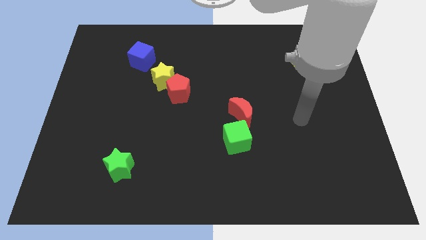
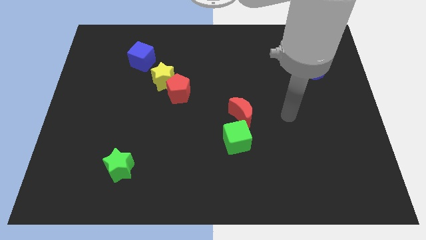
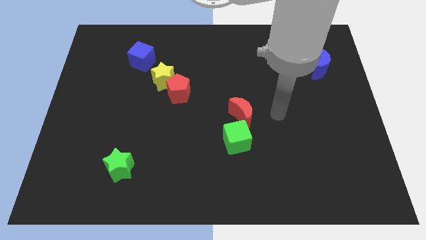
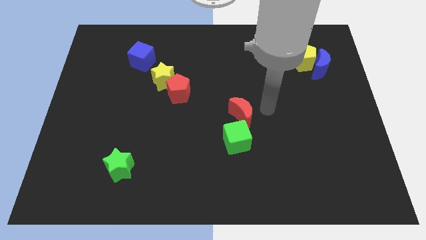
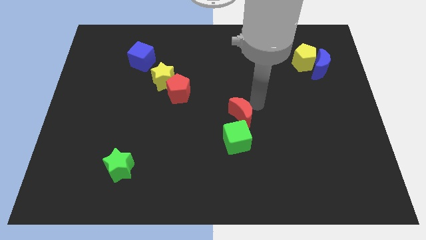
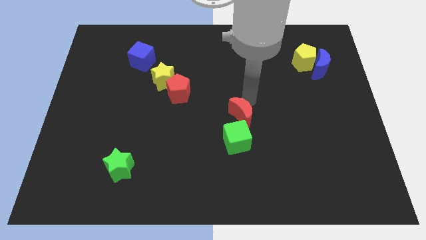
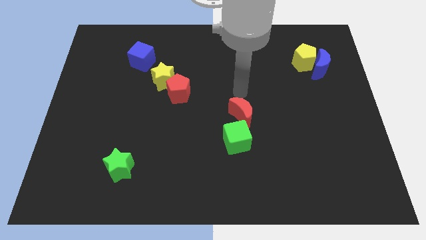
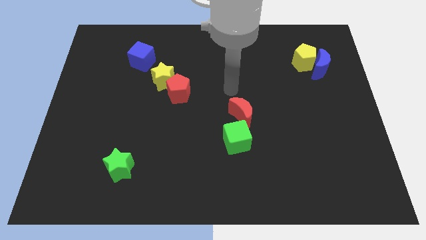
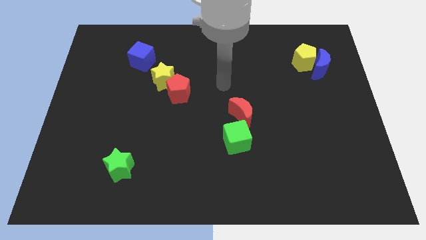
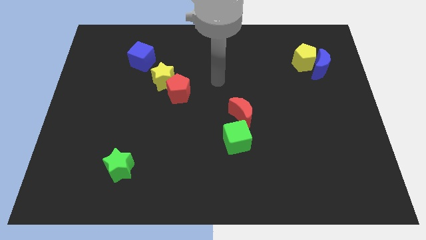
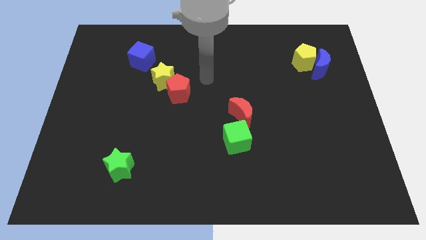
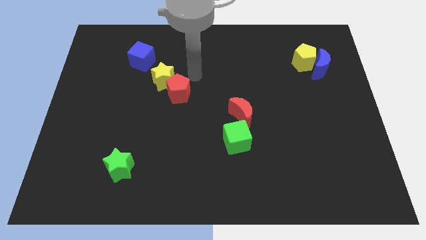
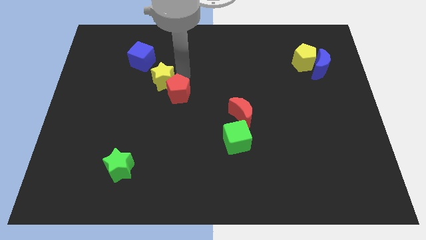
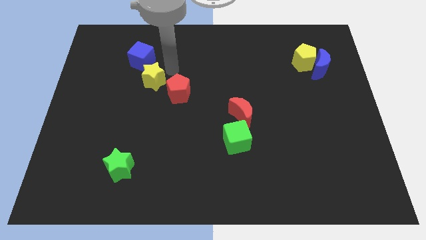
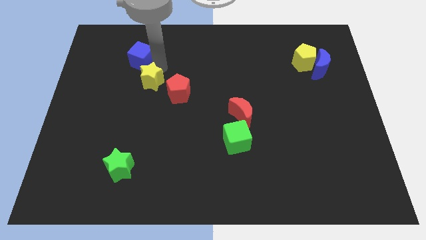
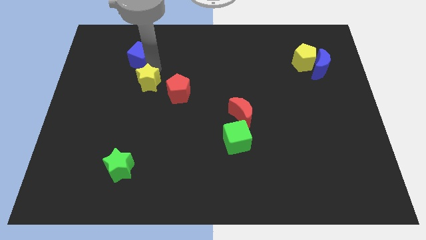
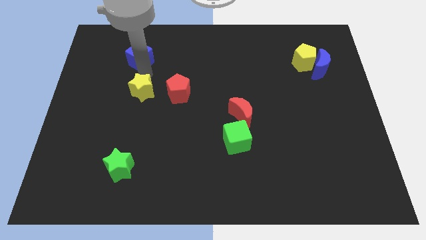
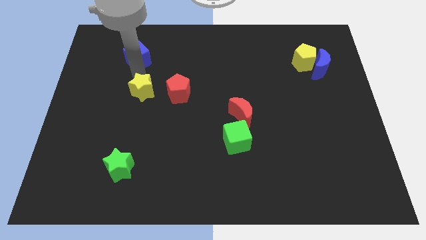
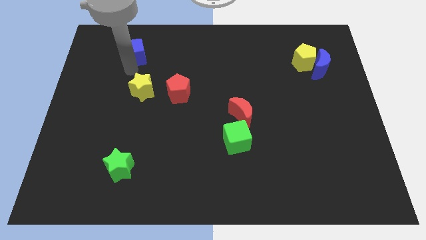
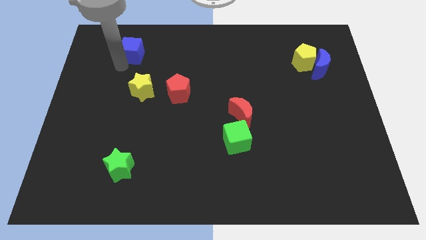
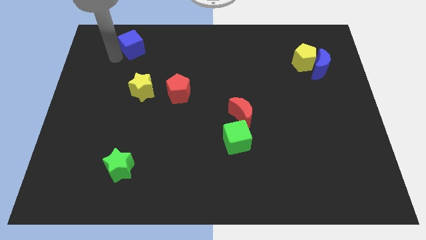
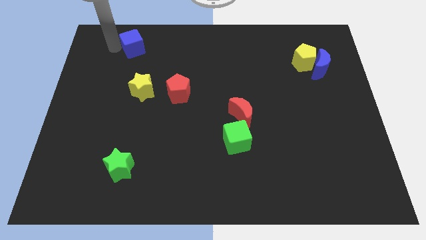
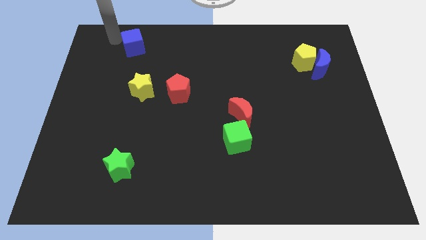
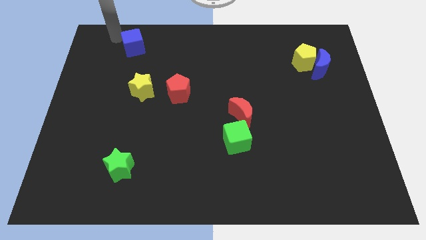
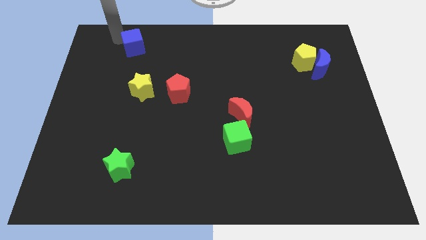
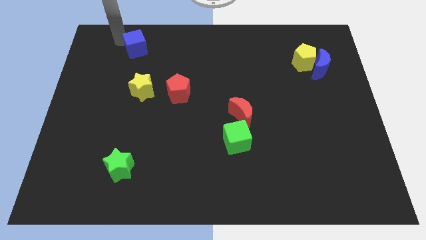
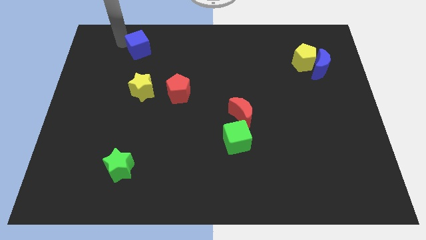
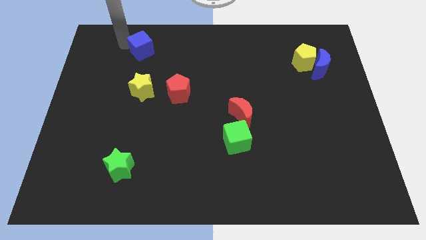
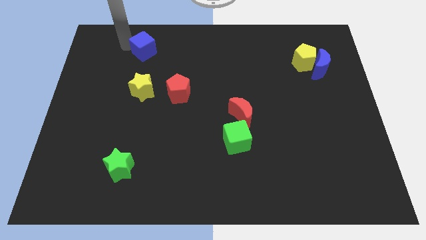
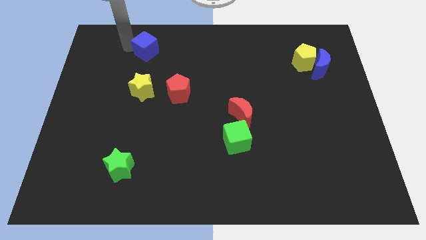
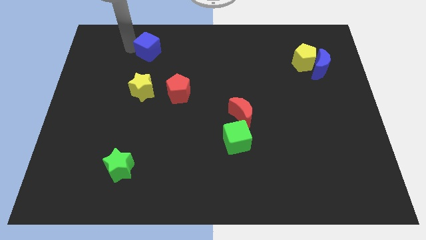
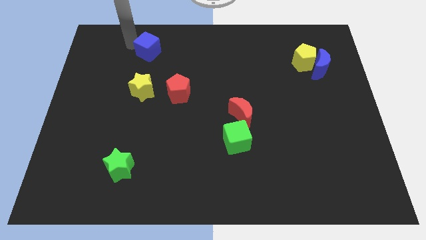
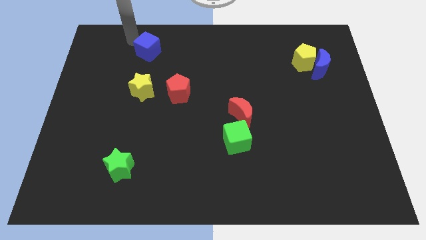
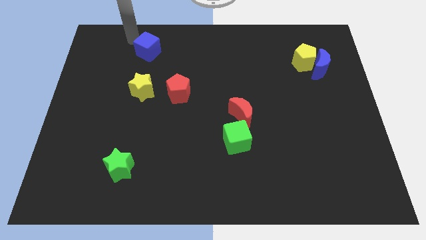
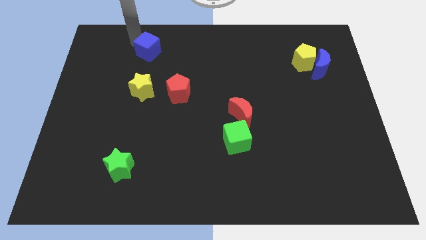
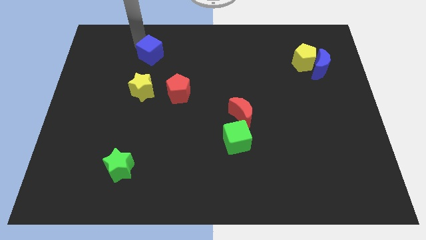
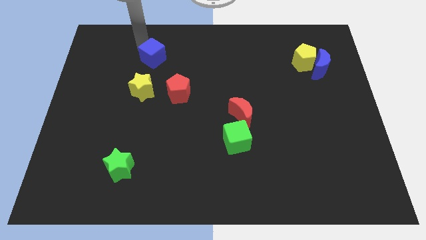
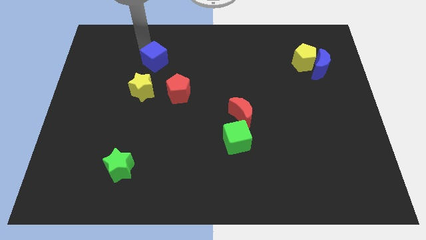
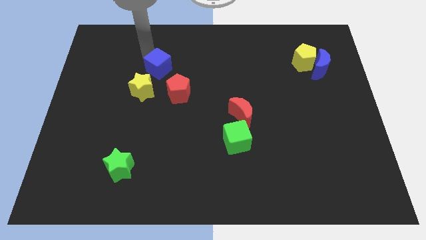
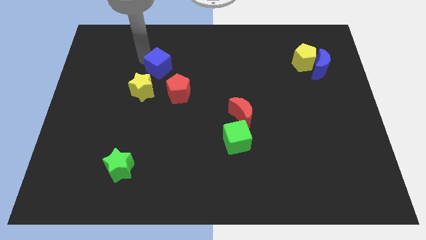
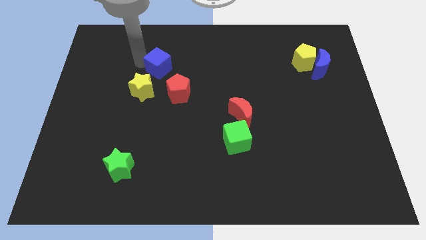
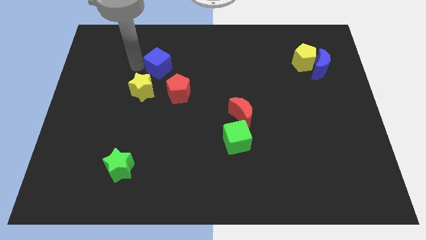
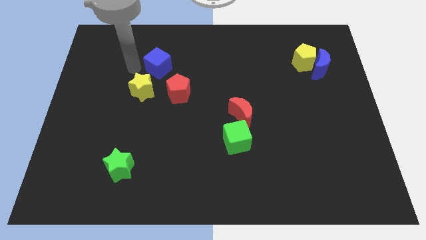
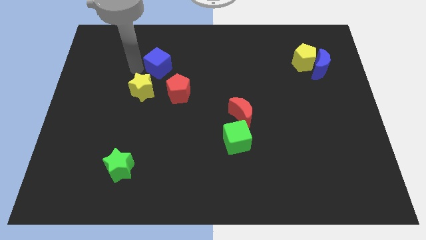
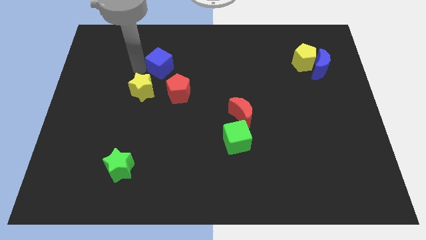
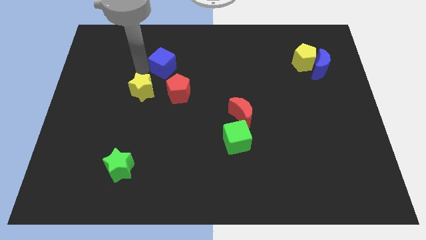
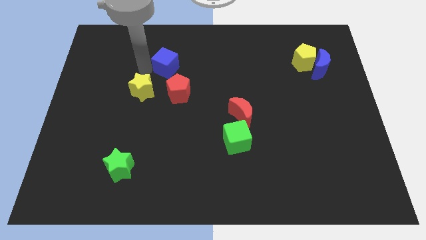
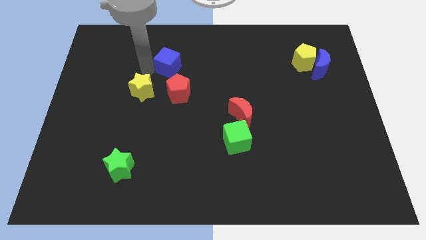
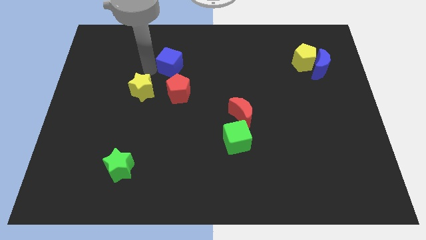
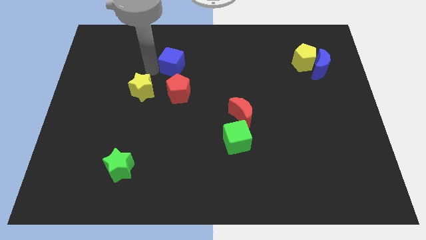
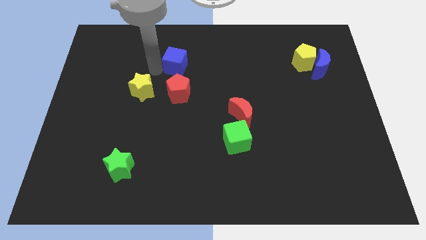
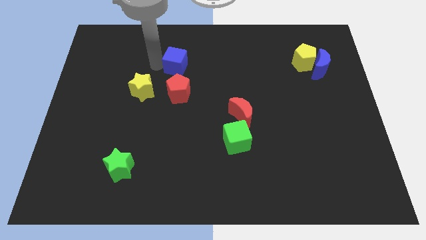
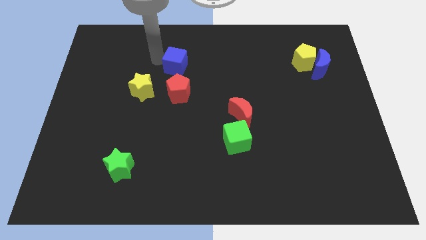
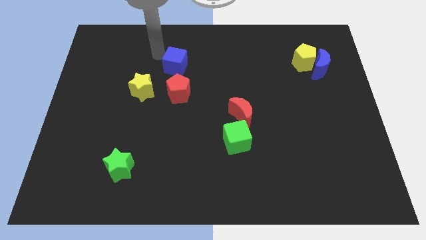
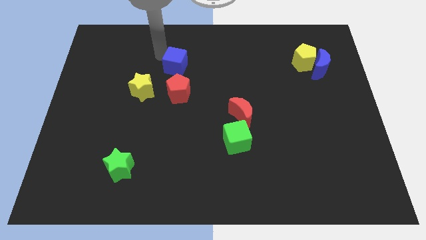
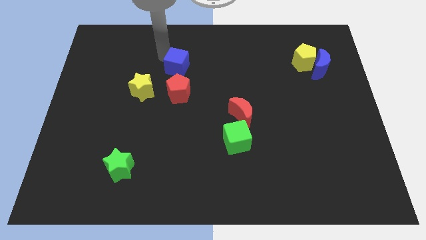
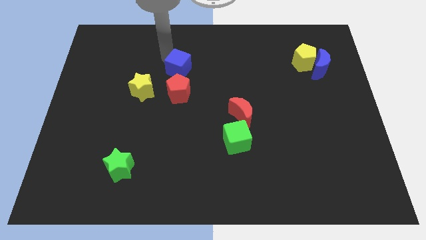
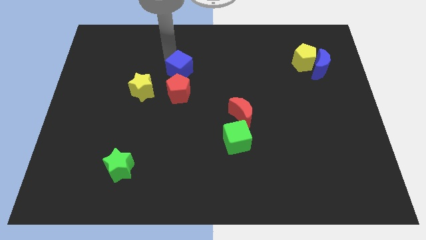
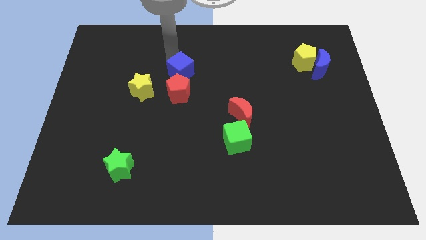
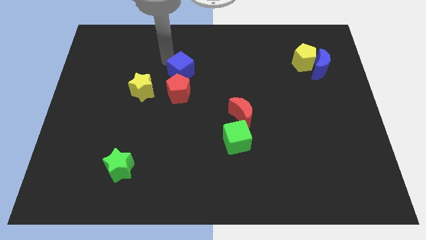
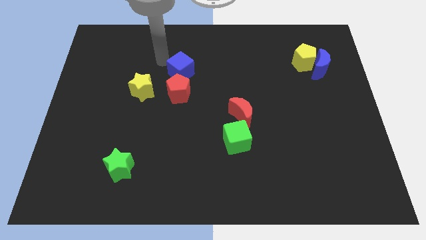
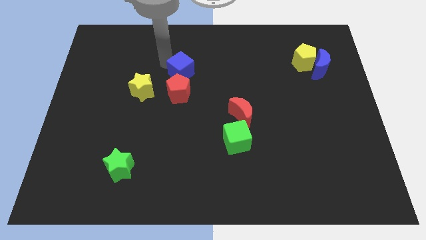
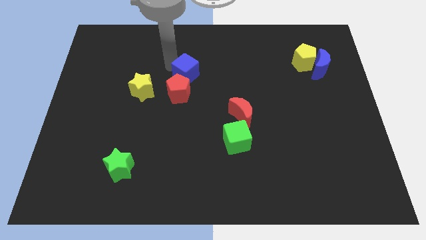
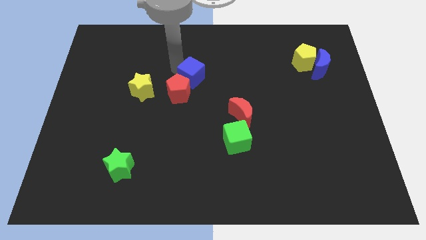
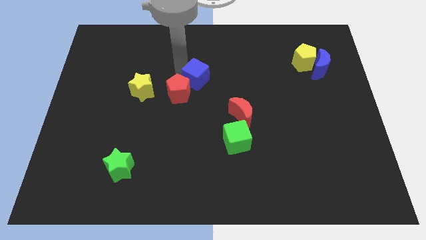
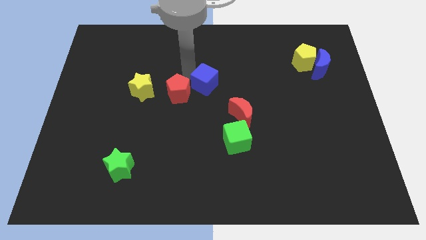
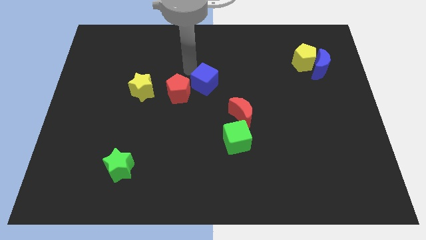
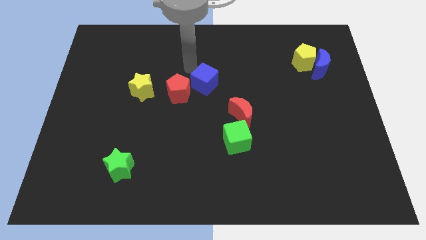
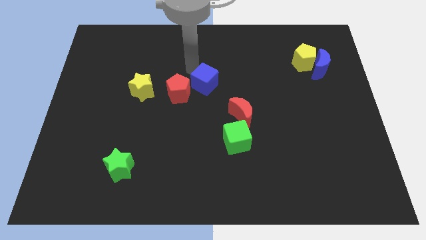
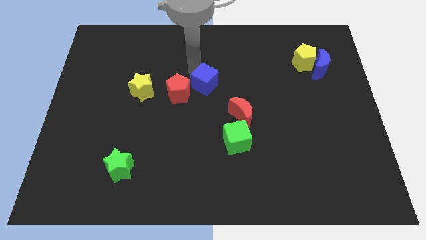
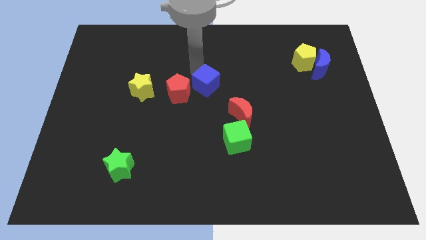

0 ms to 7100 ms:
push the blue cube to the top left side of the red moon
